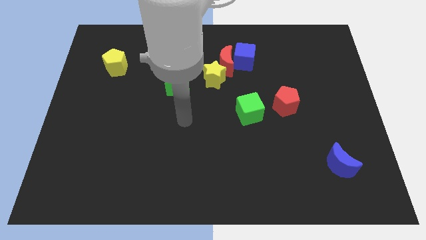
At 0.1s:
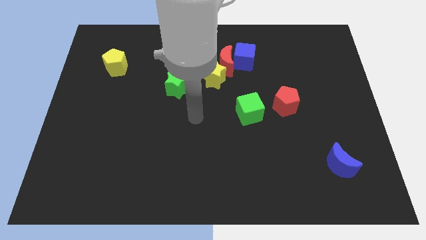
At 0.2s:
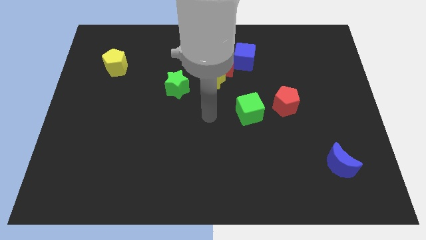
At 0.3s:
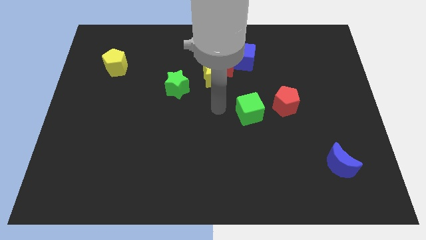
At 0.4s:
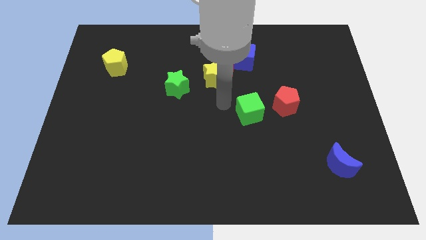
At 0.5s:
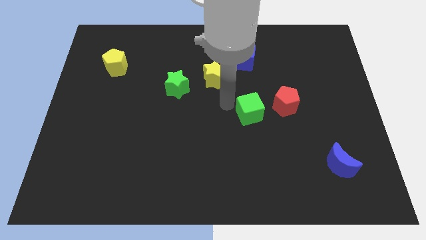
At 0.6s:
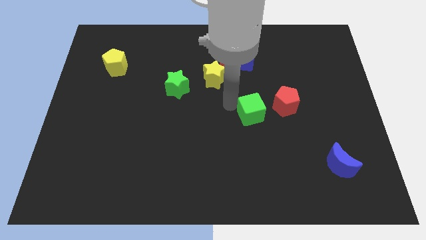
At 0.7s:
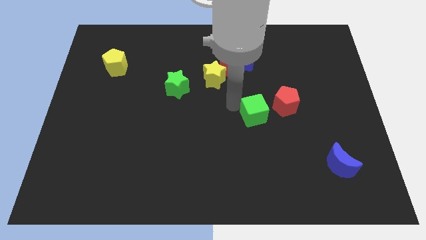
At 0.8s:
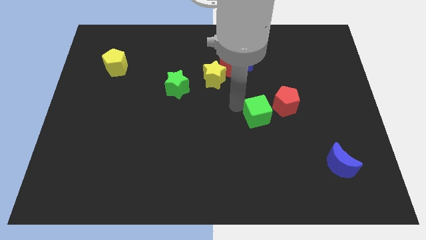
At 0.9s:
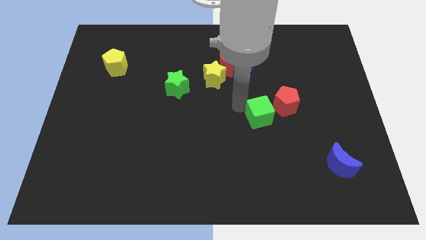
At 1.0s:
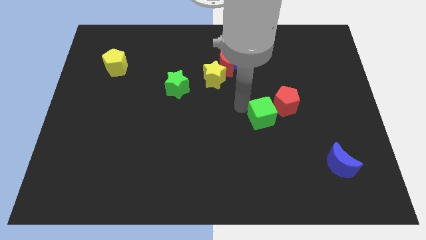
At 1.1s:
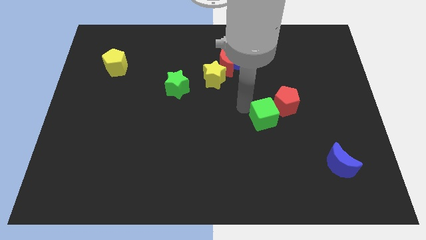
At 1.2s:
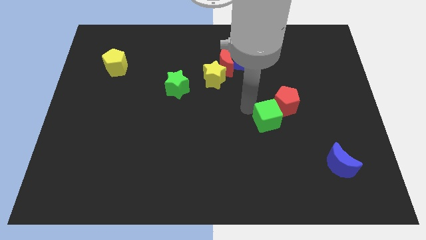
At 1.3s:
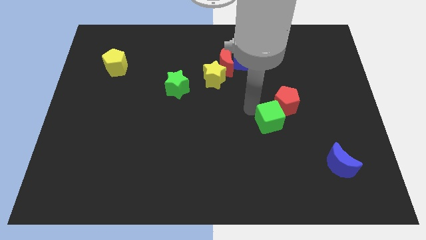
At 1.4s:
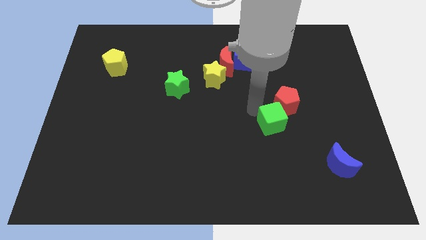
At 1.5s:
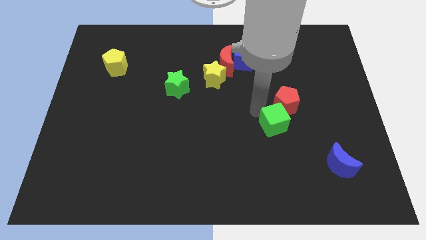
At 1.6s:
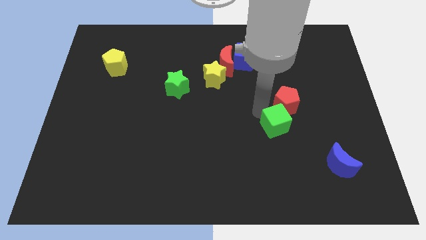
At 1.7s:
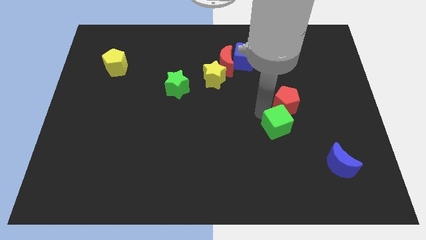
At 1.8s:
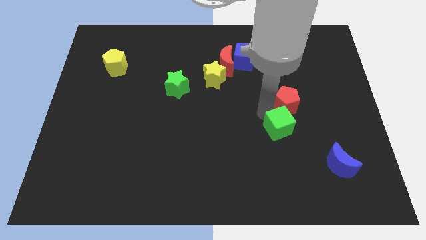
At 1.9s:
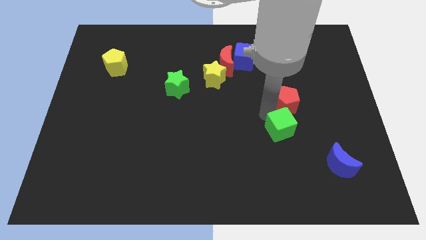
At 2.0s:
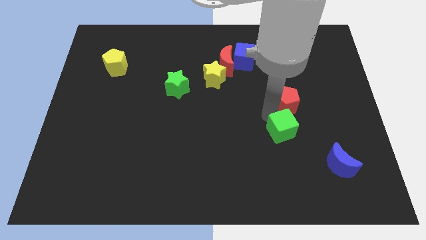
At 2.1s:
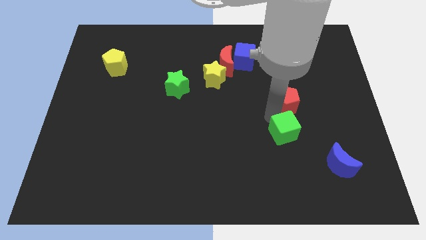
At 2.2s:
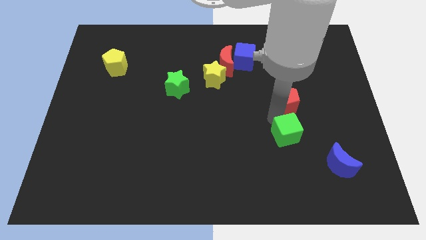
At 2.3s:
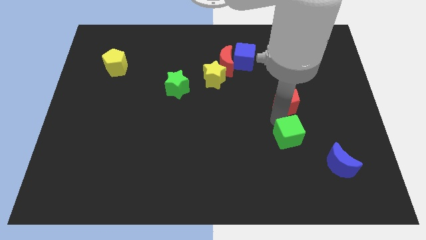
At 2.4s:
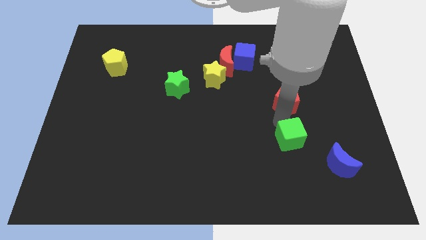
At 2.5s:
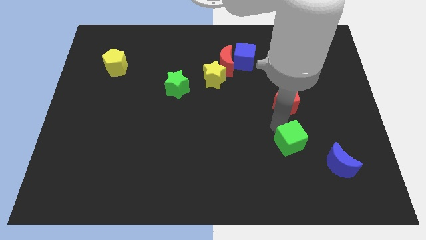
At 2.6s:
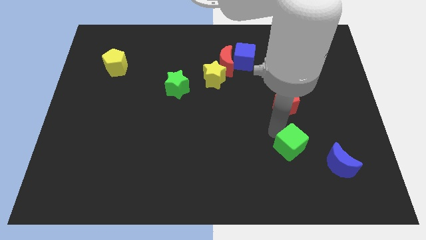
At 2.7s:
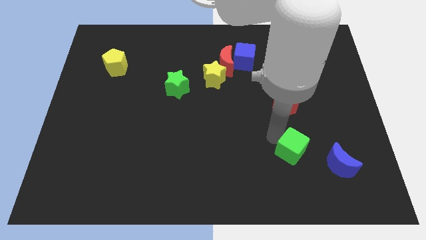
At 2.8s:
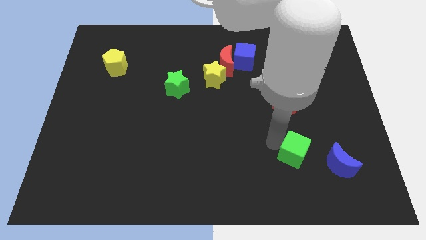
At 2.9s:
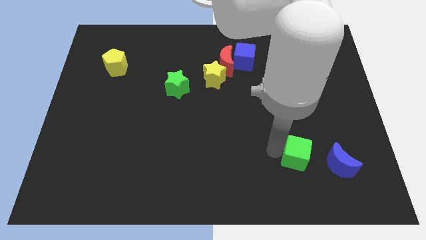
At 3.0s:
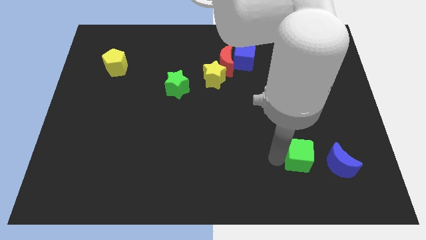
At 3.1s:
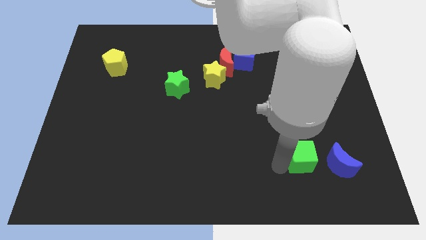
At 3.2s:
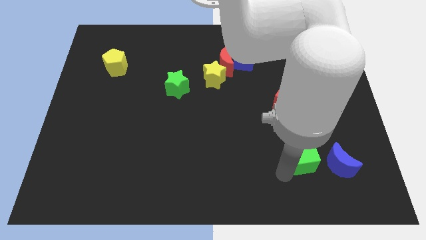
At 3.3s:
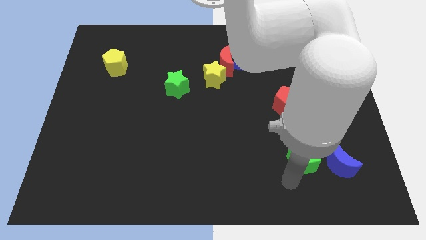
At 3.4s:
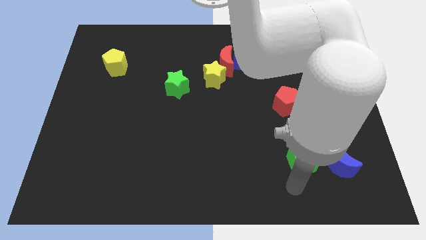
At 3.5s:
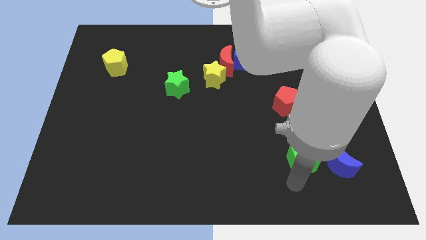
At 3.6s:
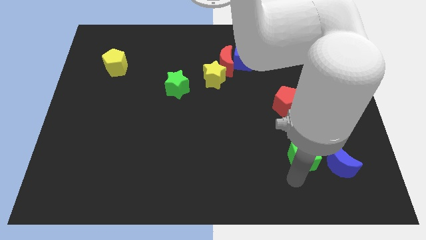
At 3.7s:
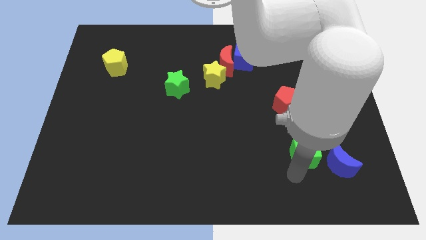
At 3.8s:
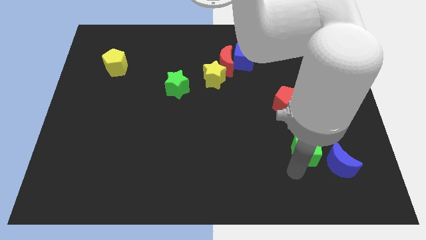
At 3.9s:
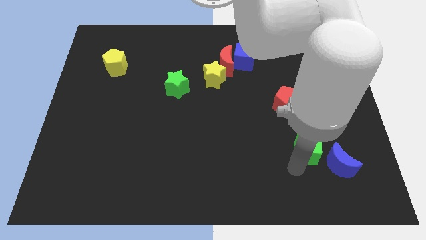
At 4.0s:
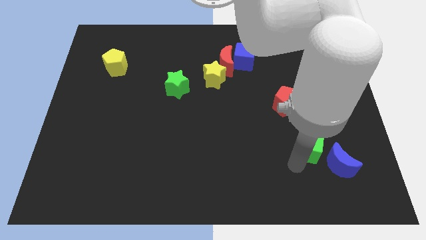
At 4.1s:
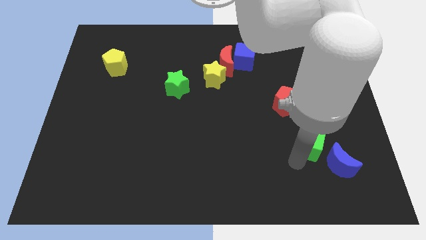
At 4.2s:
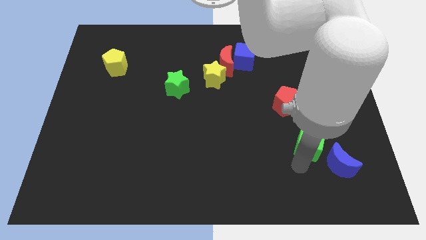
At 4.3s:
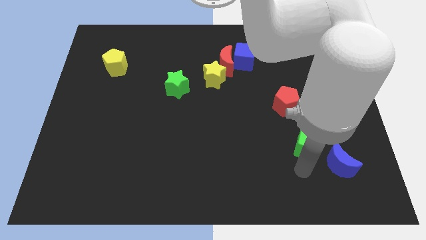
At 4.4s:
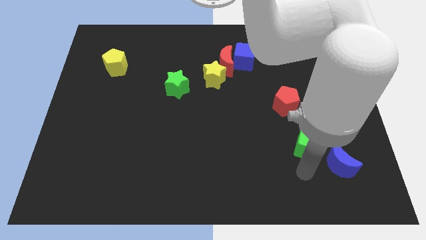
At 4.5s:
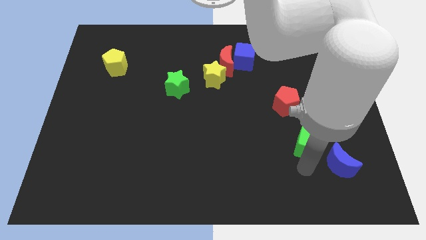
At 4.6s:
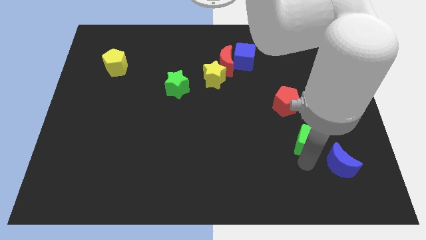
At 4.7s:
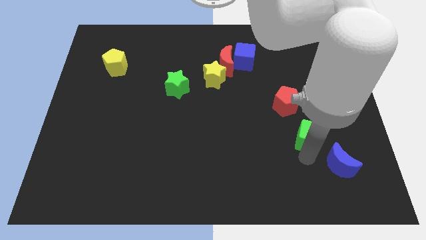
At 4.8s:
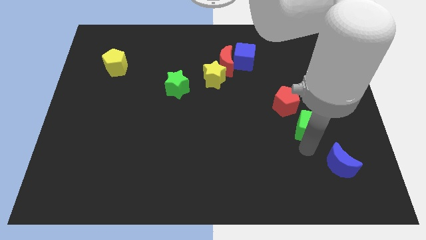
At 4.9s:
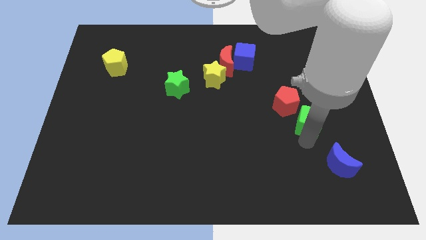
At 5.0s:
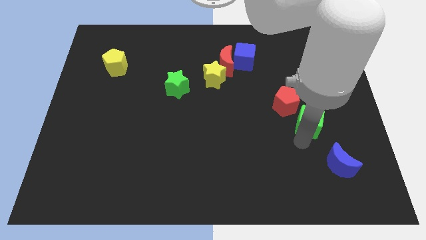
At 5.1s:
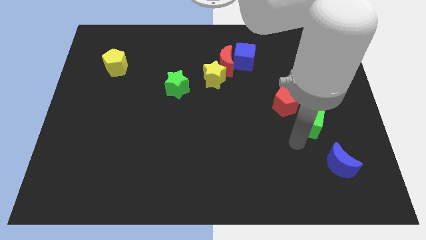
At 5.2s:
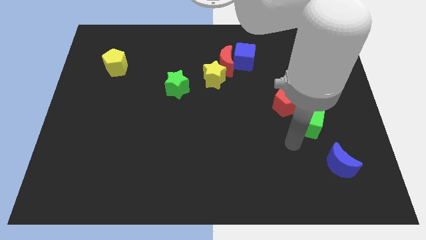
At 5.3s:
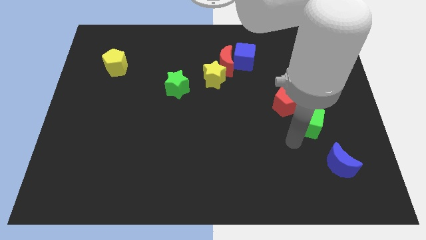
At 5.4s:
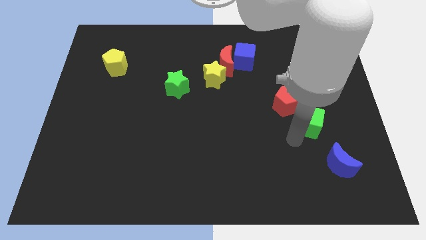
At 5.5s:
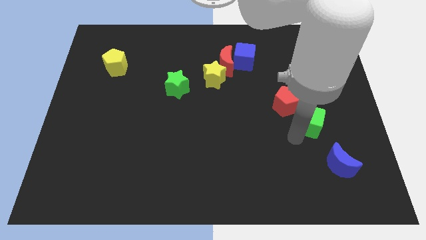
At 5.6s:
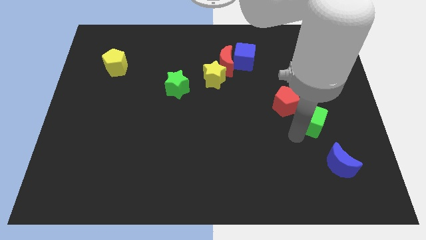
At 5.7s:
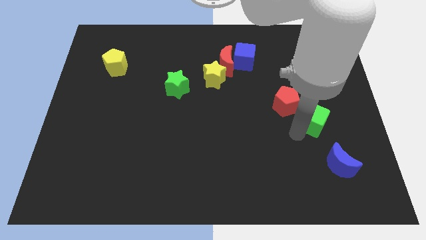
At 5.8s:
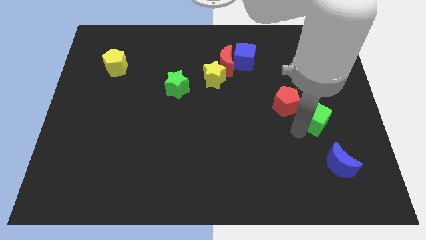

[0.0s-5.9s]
put the green cube to the right of the red pentagon
